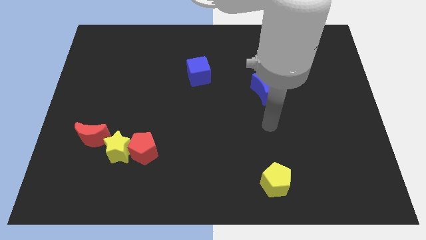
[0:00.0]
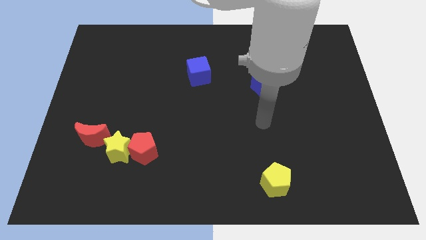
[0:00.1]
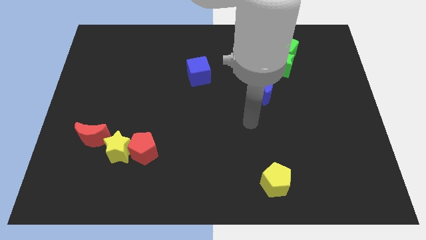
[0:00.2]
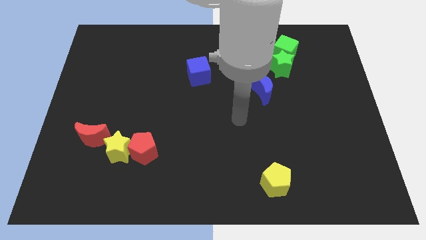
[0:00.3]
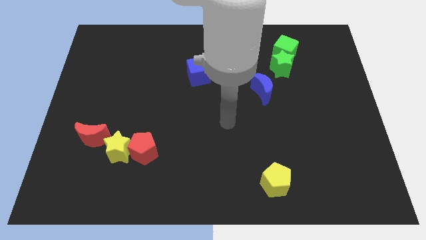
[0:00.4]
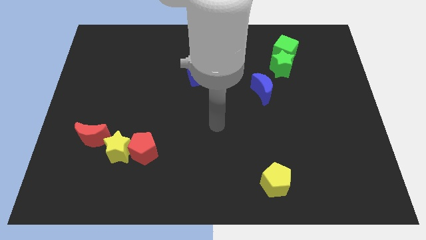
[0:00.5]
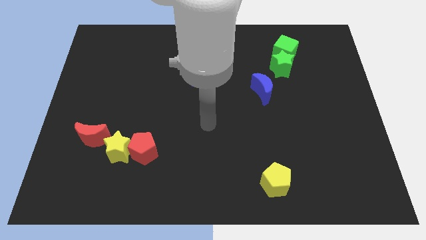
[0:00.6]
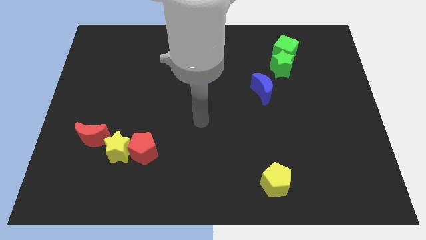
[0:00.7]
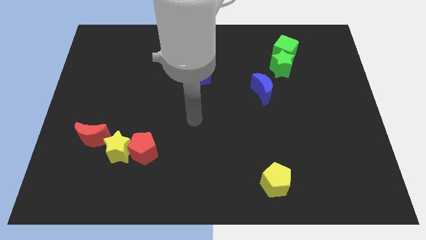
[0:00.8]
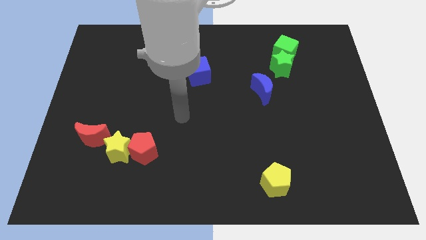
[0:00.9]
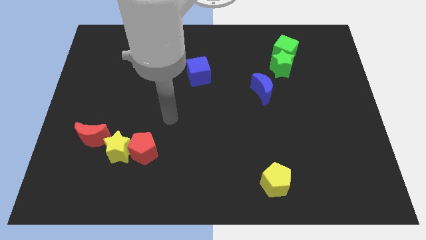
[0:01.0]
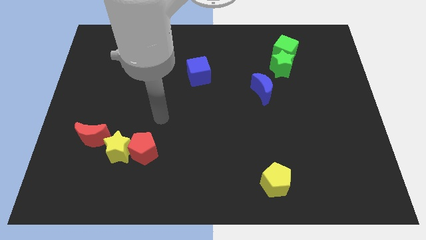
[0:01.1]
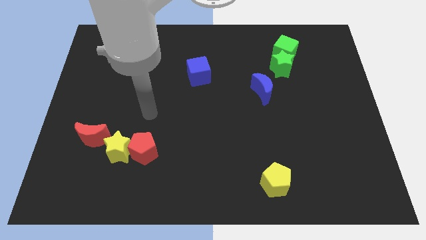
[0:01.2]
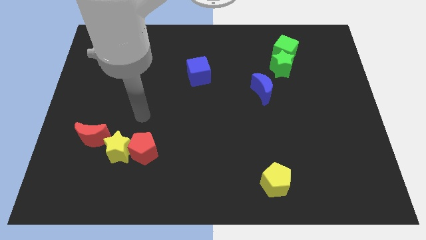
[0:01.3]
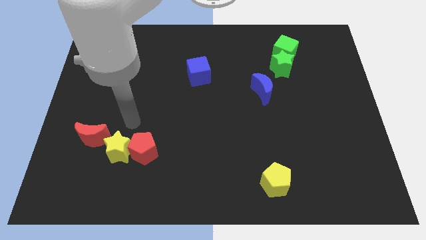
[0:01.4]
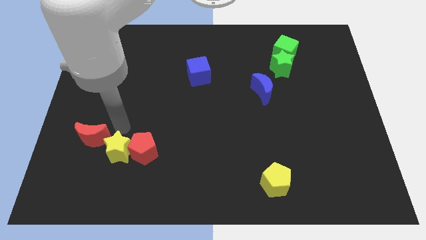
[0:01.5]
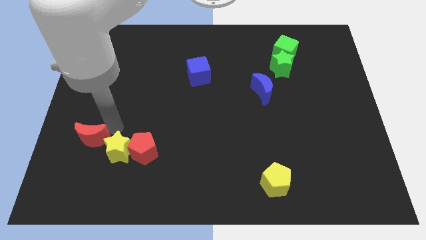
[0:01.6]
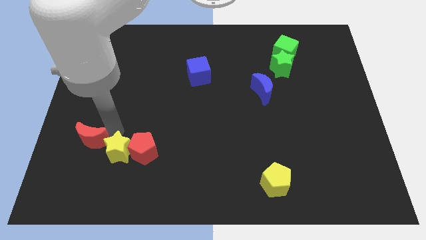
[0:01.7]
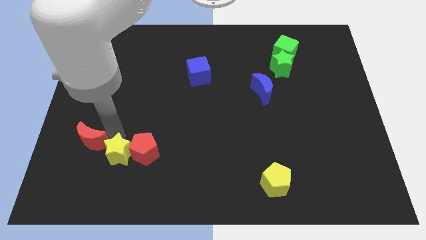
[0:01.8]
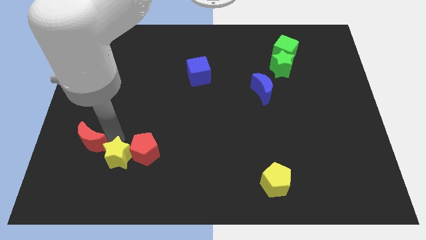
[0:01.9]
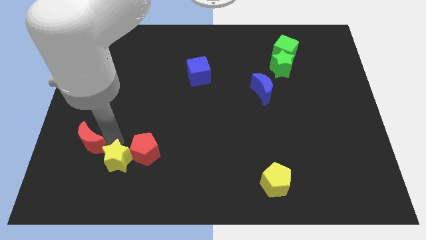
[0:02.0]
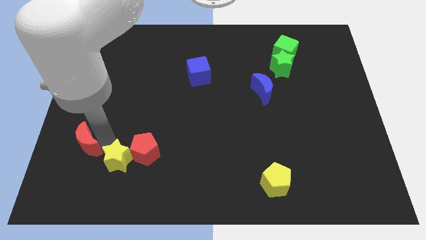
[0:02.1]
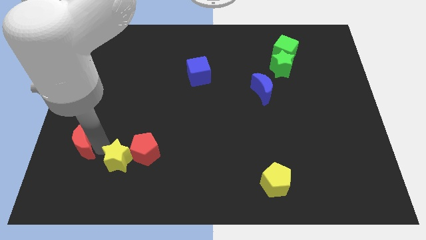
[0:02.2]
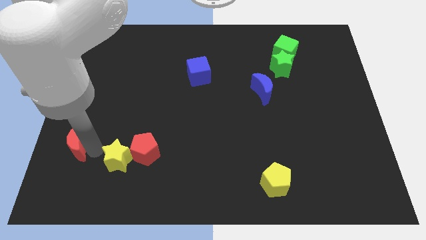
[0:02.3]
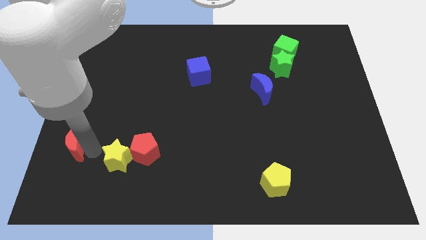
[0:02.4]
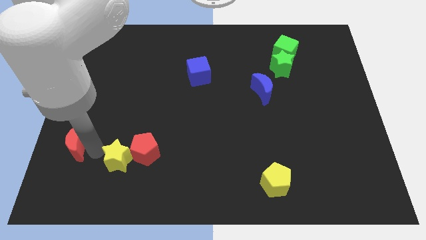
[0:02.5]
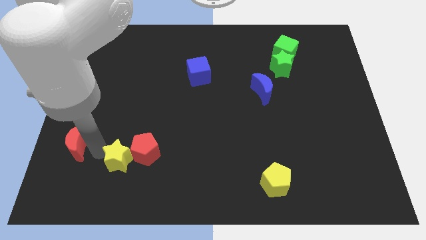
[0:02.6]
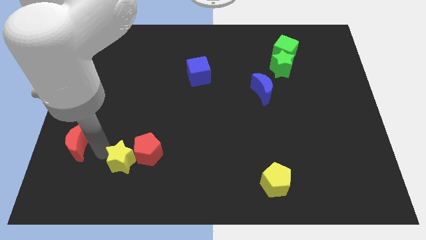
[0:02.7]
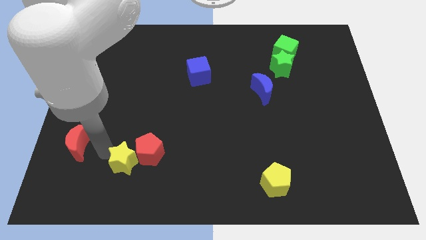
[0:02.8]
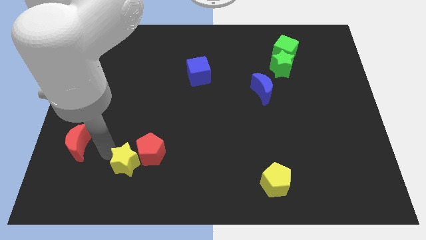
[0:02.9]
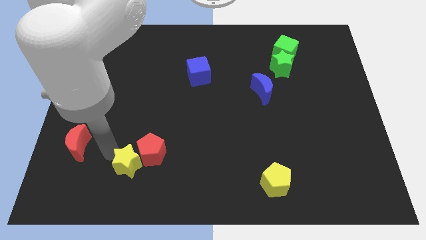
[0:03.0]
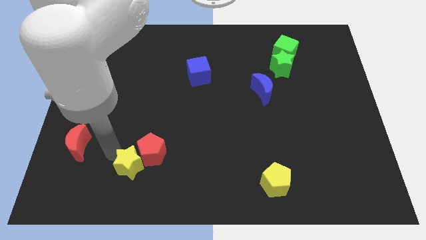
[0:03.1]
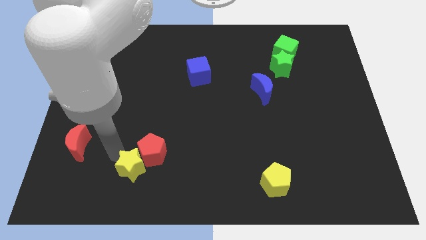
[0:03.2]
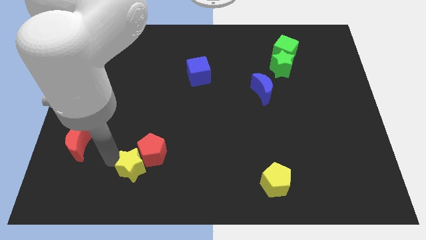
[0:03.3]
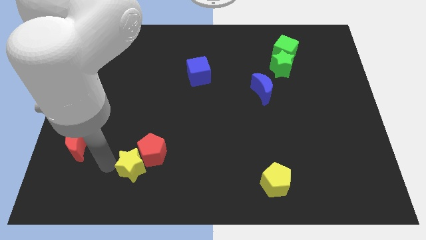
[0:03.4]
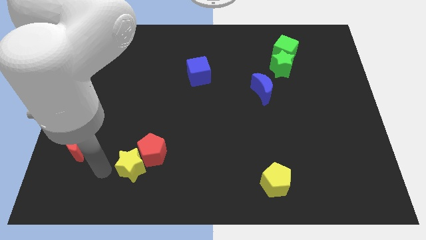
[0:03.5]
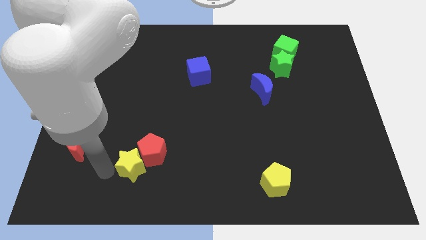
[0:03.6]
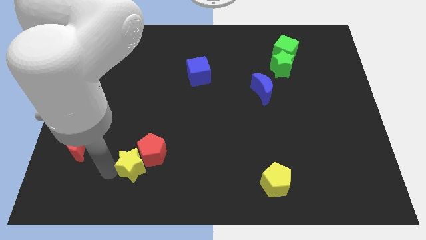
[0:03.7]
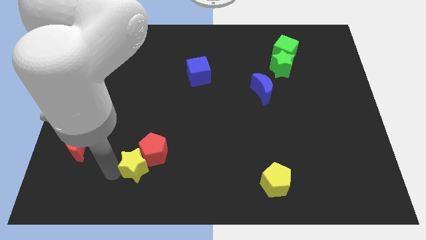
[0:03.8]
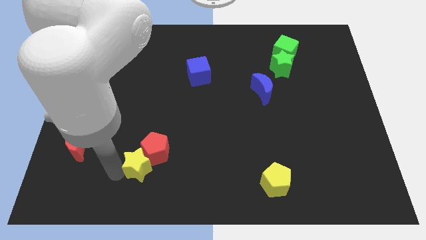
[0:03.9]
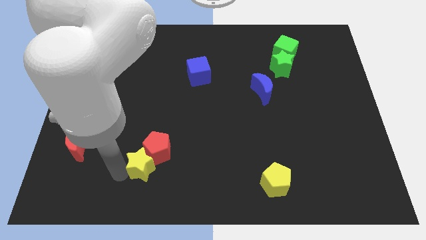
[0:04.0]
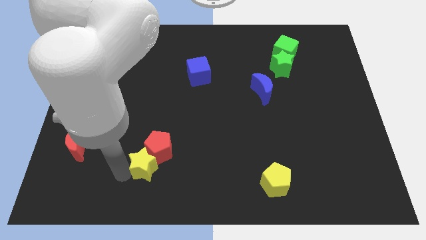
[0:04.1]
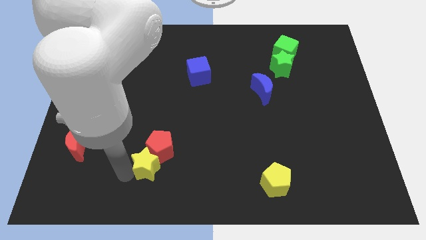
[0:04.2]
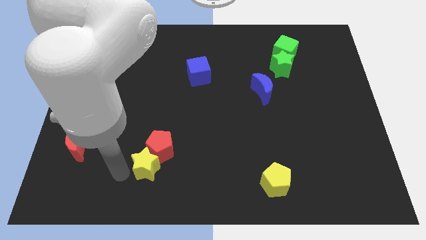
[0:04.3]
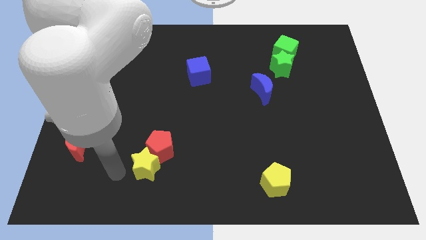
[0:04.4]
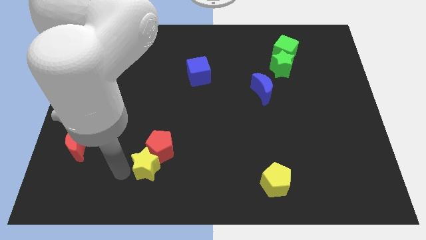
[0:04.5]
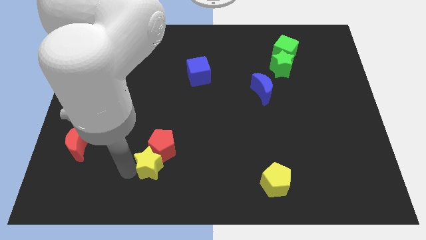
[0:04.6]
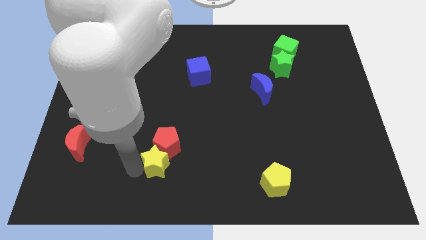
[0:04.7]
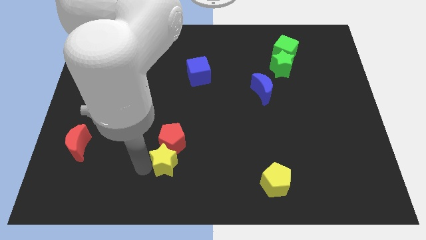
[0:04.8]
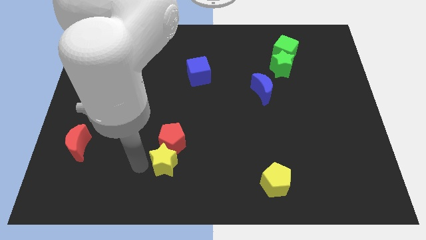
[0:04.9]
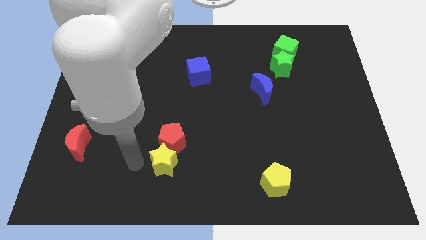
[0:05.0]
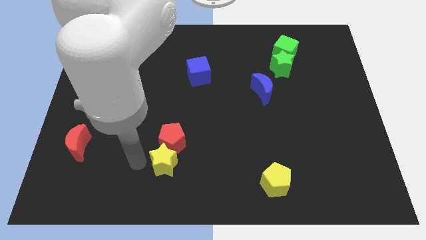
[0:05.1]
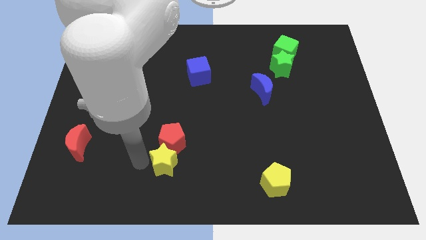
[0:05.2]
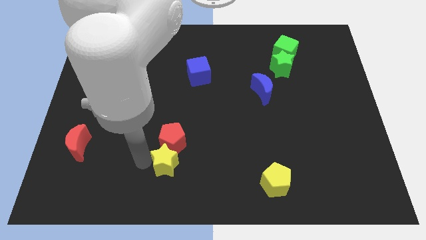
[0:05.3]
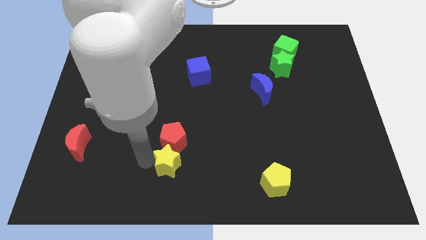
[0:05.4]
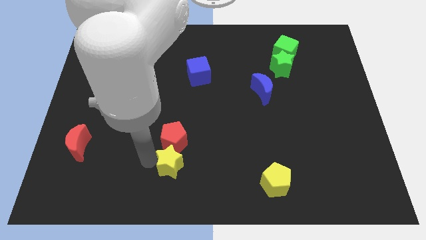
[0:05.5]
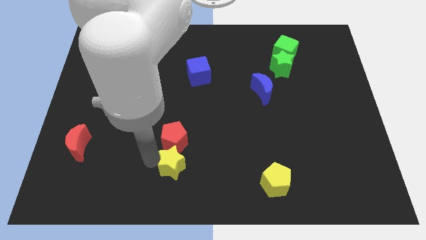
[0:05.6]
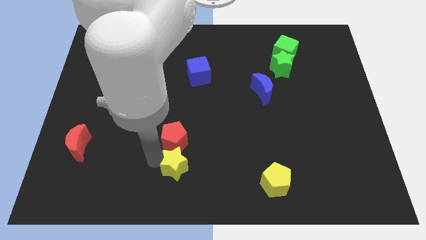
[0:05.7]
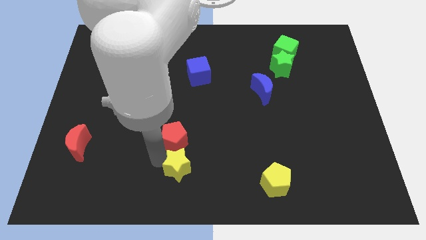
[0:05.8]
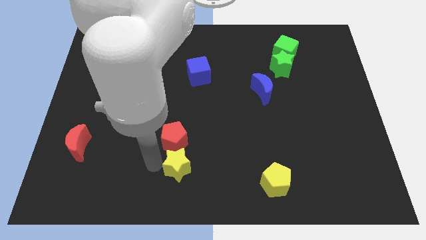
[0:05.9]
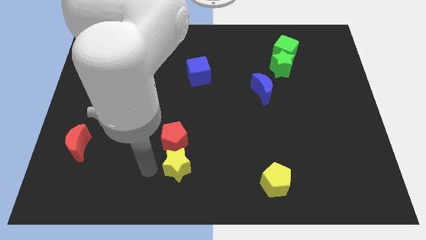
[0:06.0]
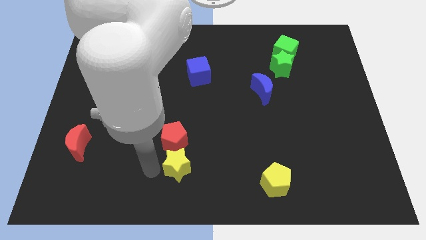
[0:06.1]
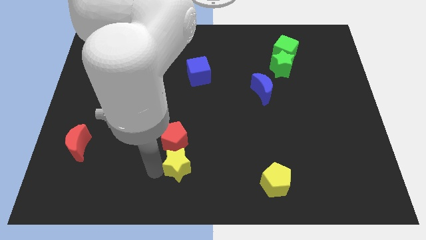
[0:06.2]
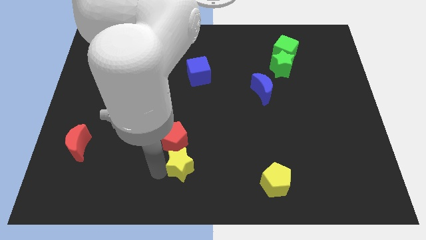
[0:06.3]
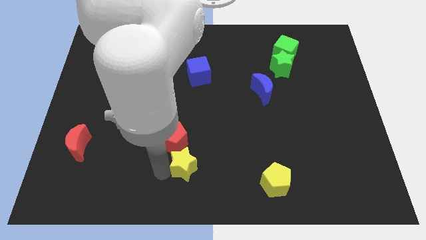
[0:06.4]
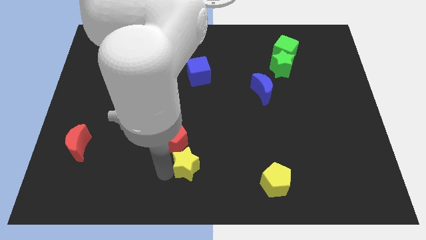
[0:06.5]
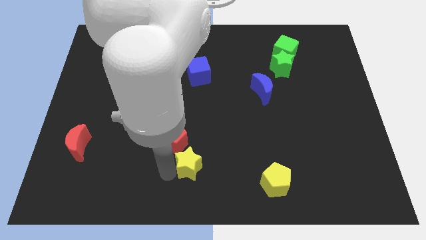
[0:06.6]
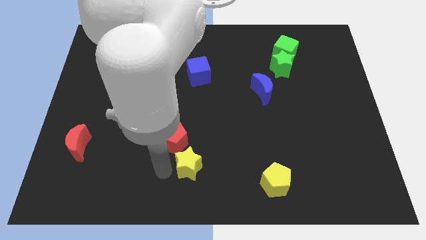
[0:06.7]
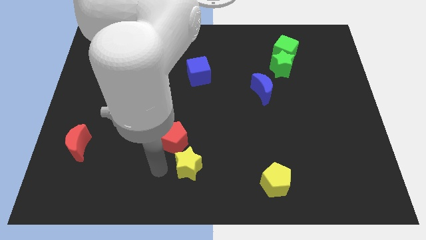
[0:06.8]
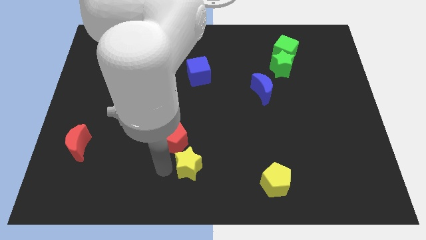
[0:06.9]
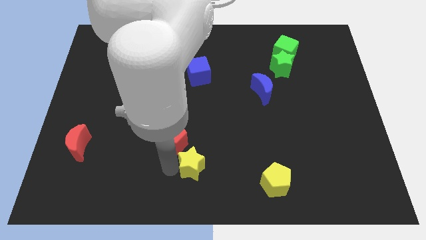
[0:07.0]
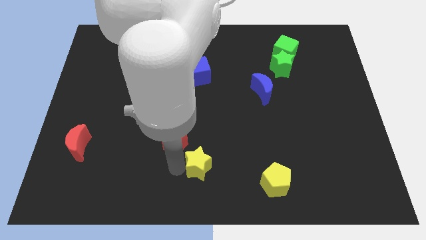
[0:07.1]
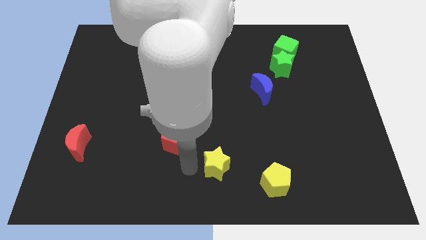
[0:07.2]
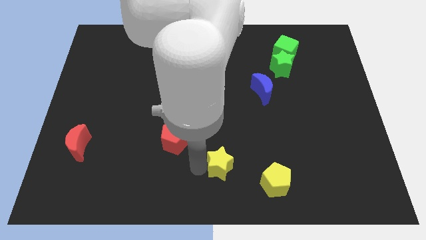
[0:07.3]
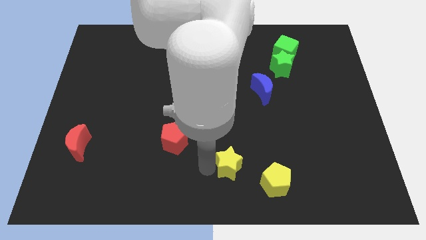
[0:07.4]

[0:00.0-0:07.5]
move the yellow star to the top left side of the yellow pentagon
